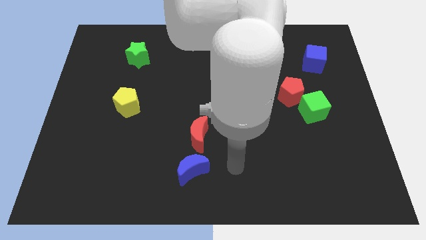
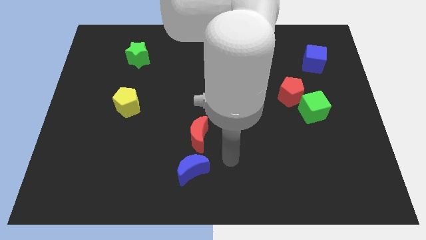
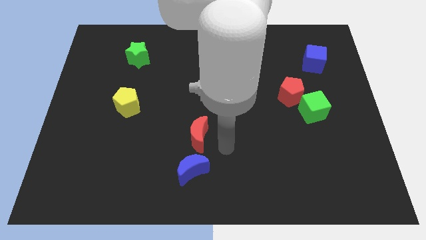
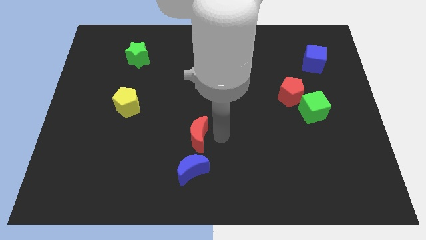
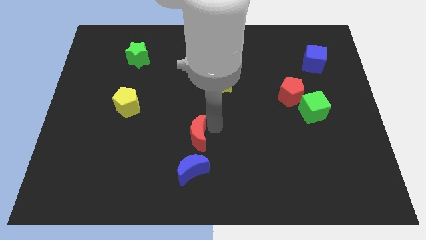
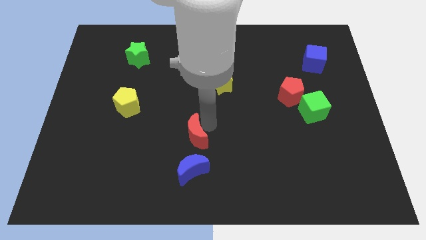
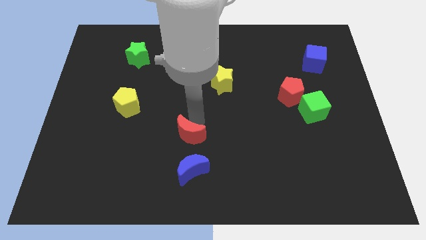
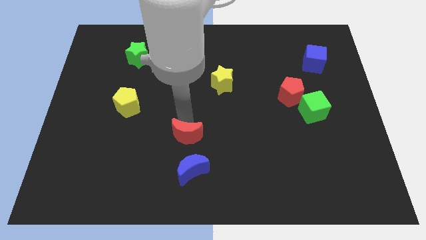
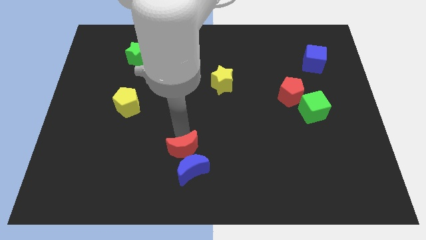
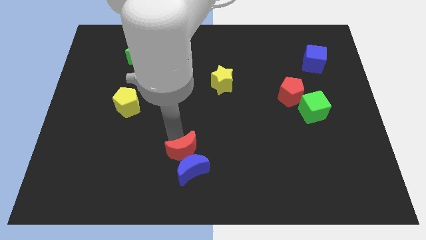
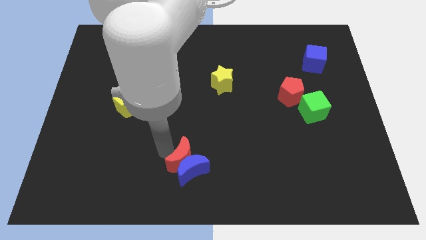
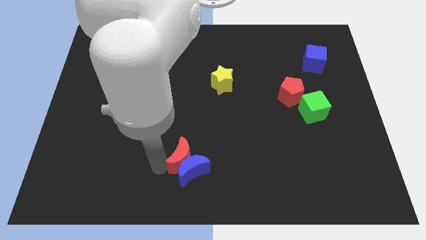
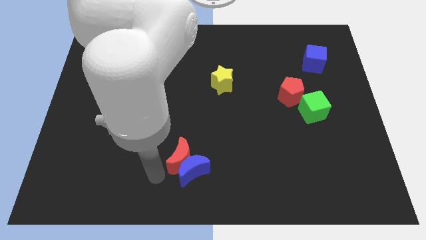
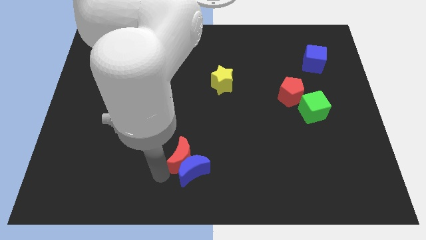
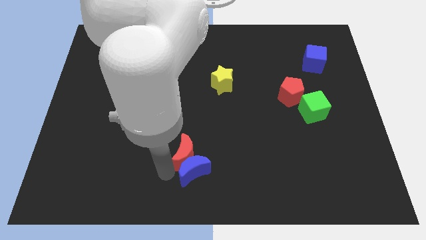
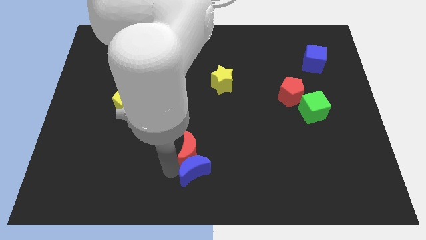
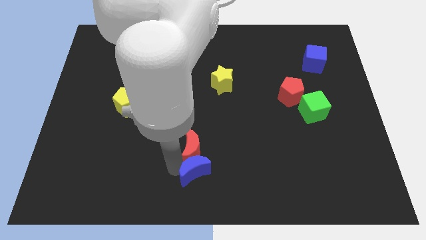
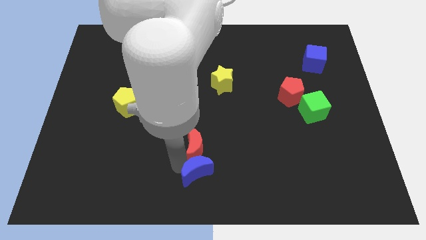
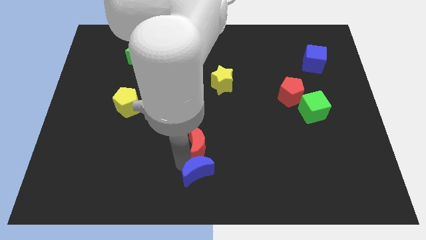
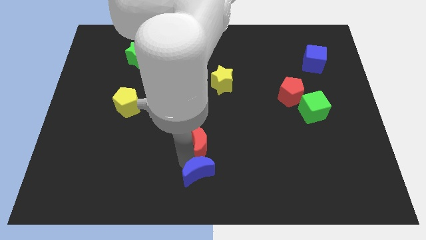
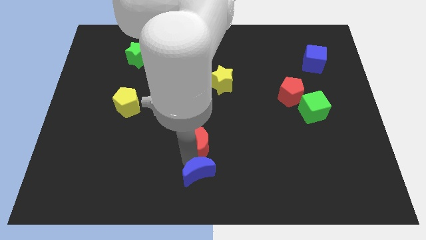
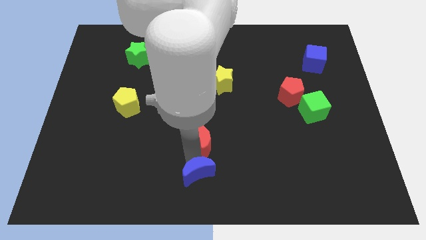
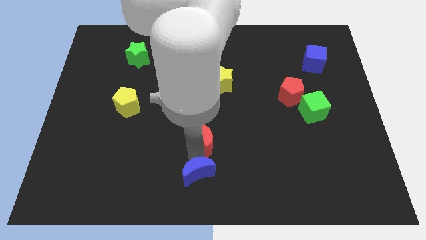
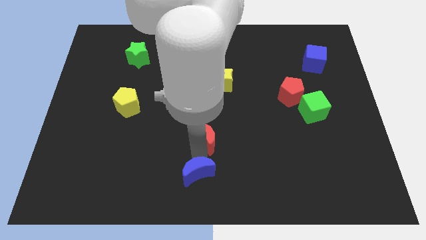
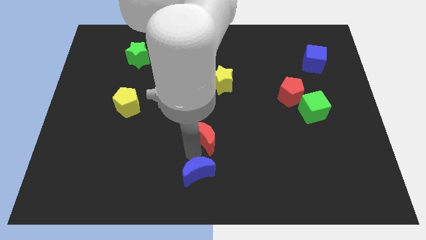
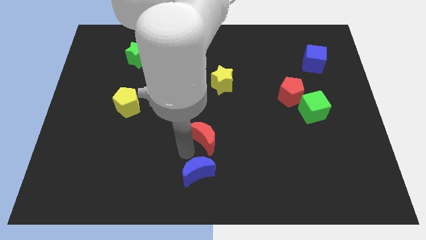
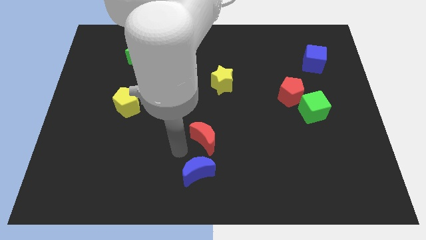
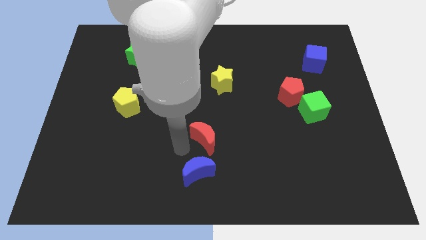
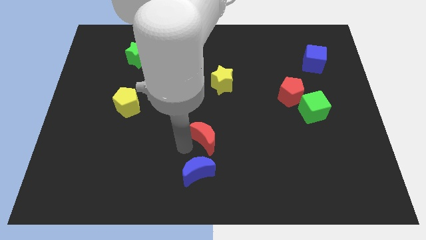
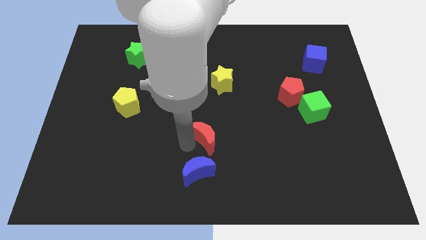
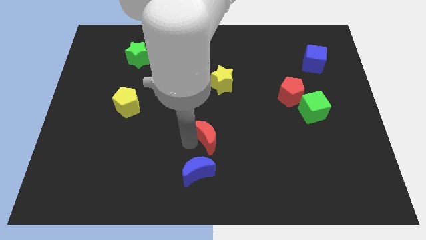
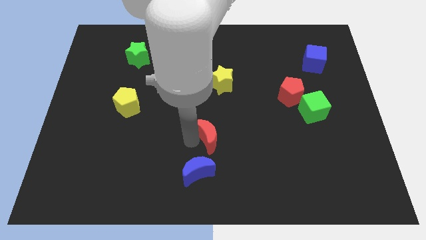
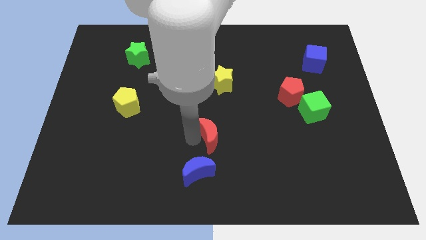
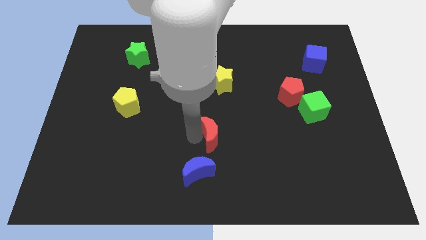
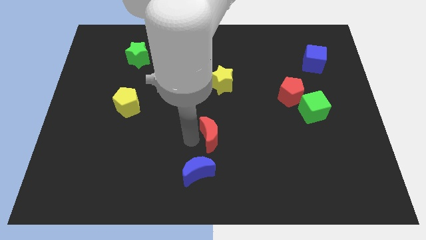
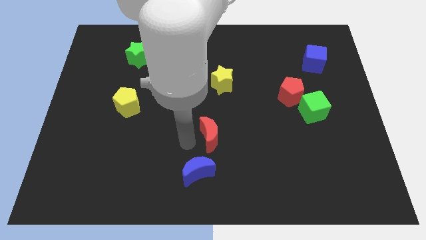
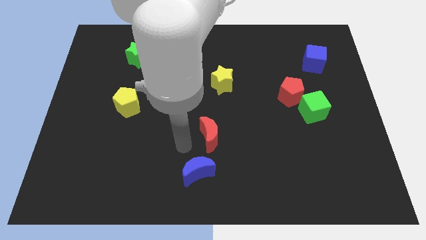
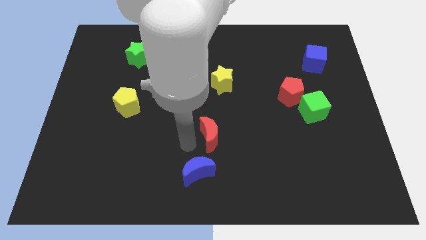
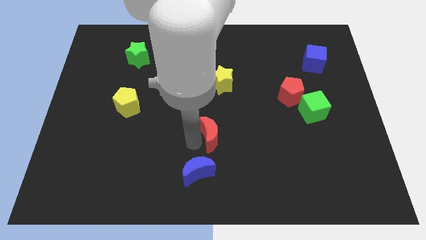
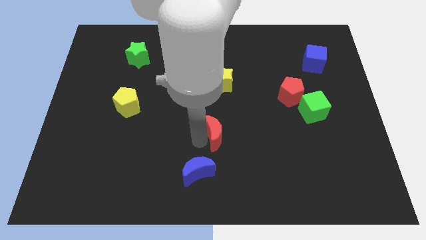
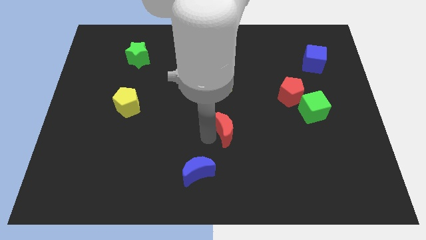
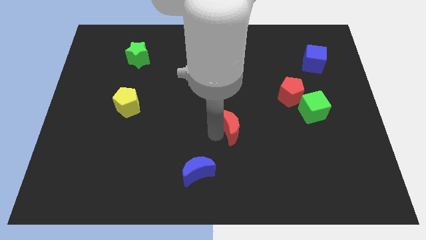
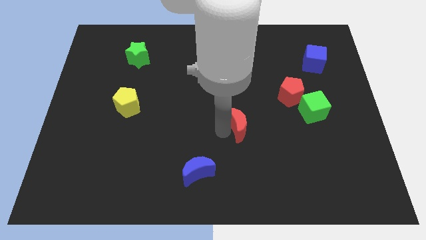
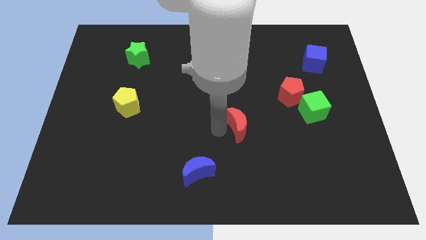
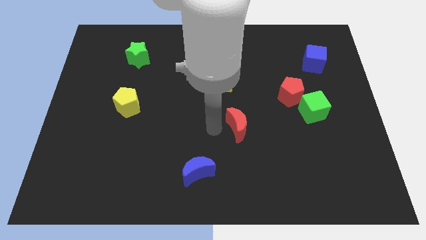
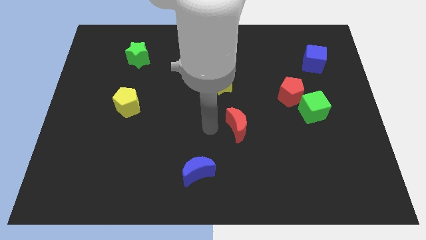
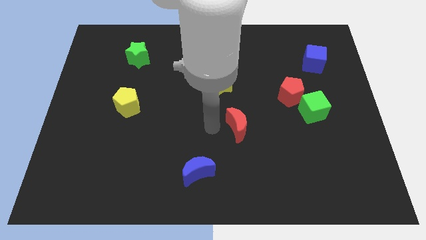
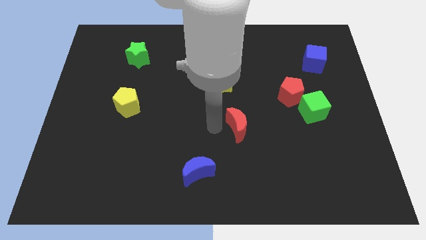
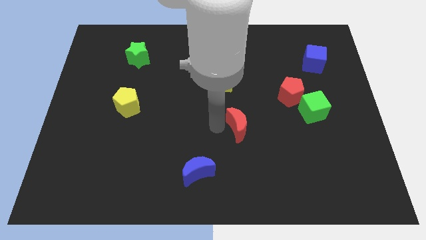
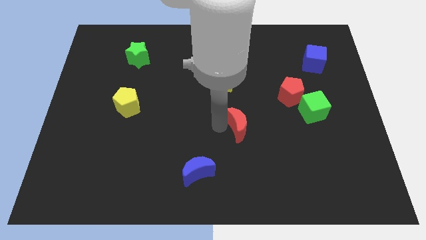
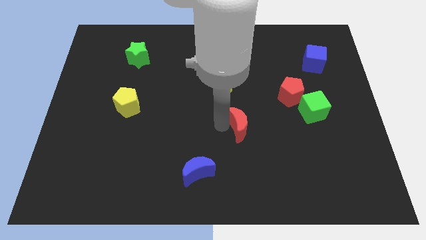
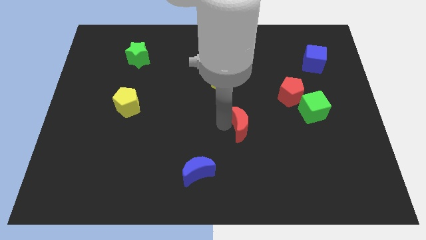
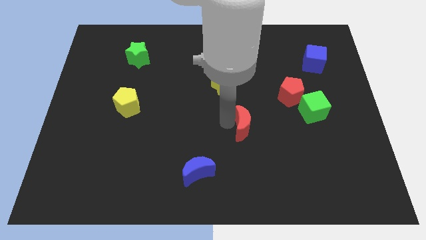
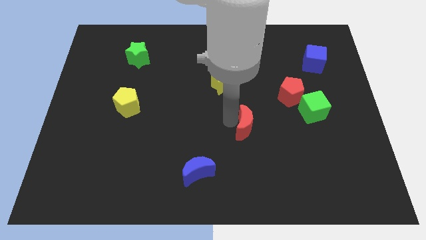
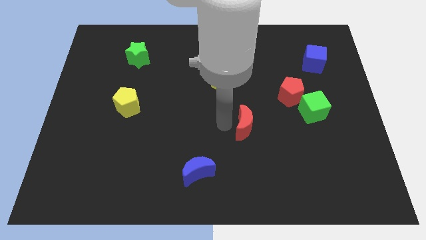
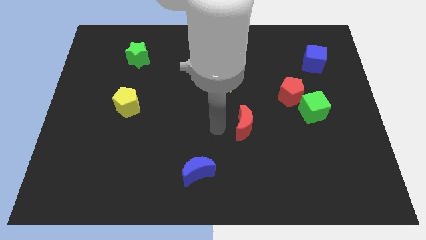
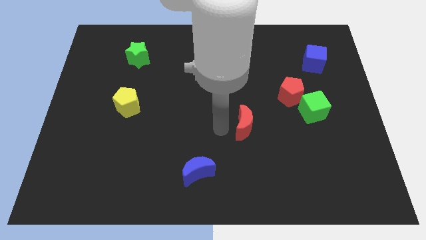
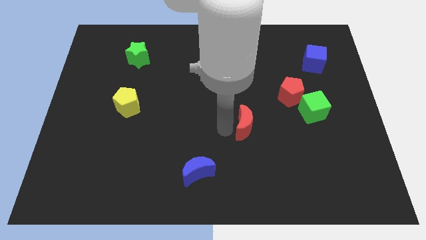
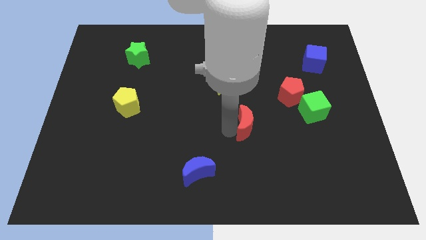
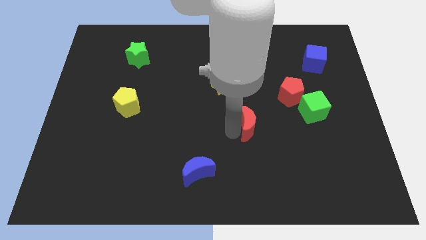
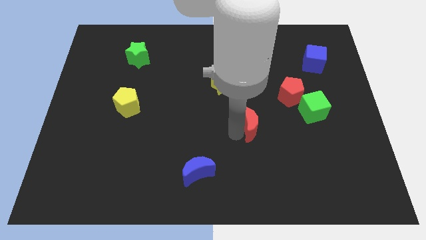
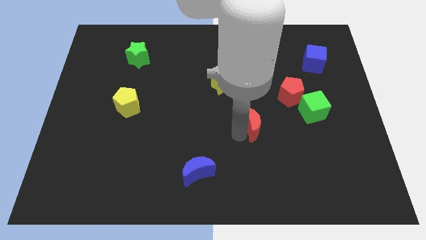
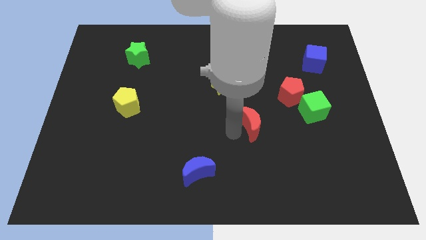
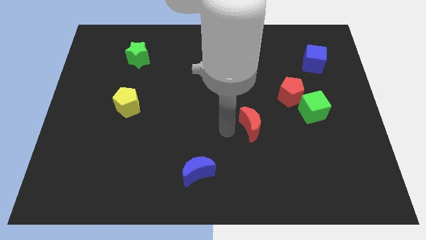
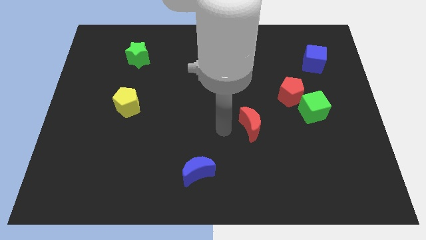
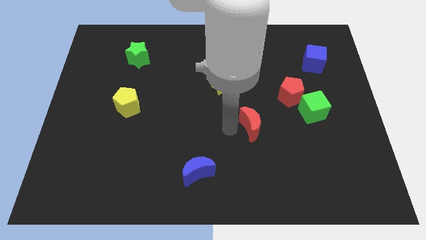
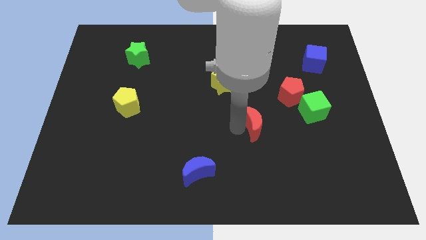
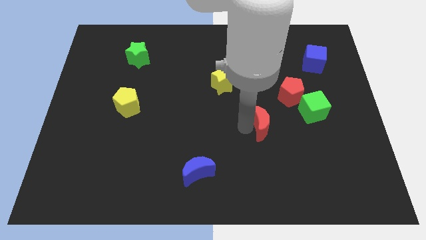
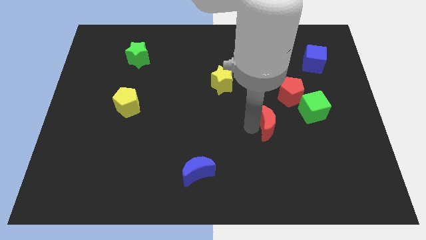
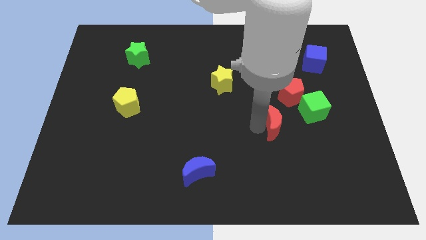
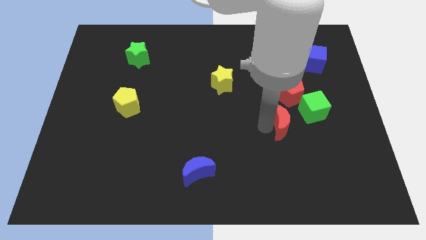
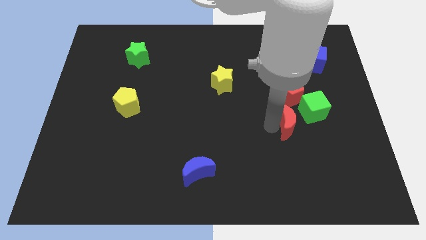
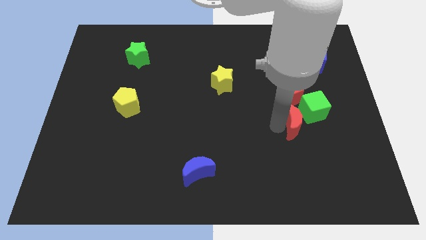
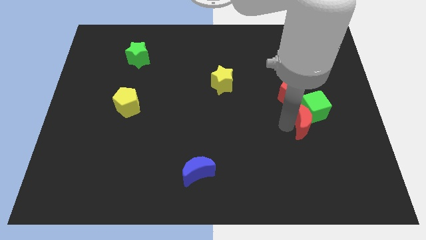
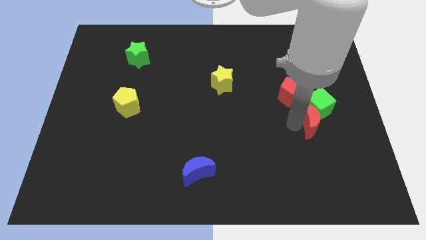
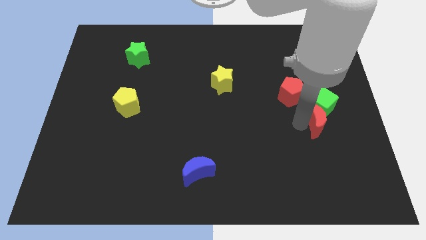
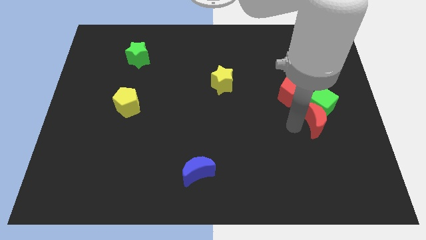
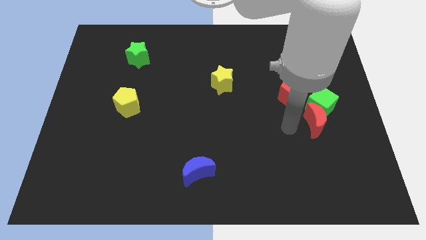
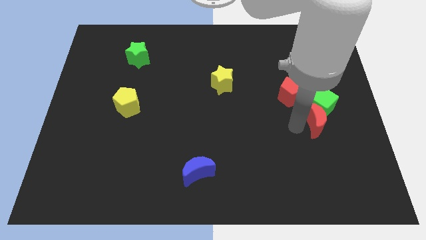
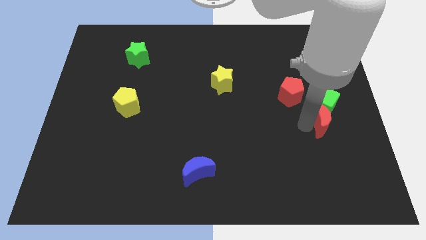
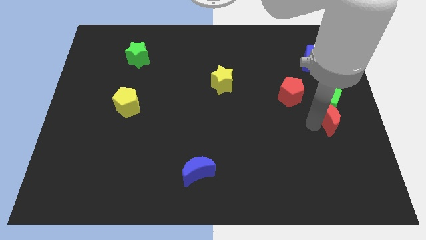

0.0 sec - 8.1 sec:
move the red moon to the right side of the board
